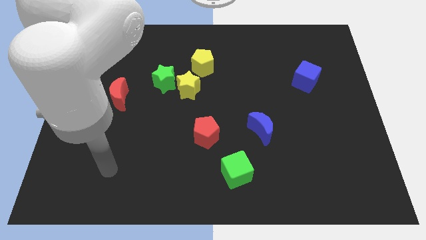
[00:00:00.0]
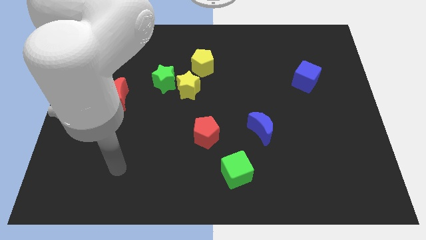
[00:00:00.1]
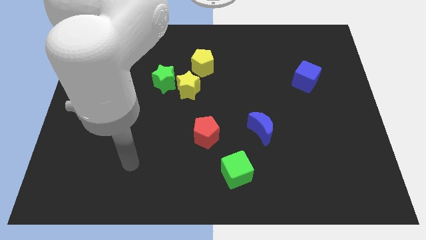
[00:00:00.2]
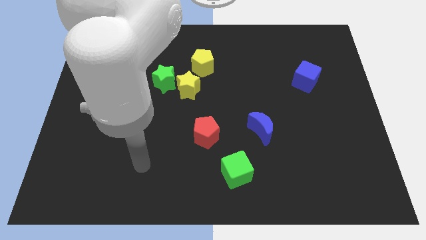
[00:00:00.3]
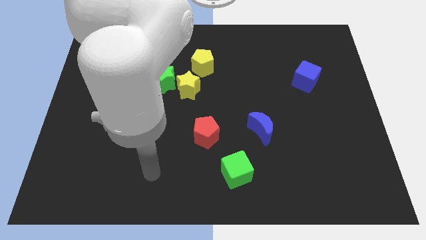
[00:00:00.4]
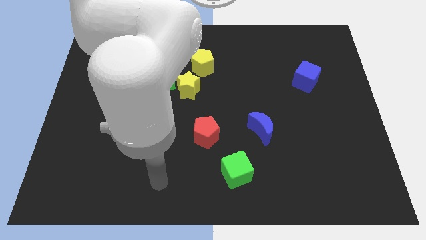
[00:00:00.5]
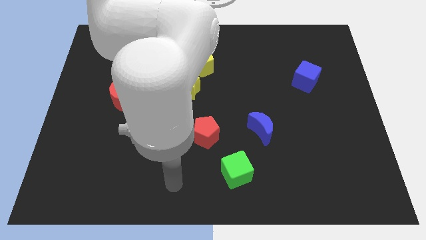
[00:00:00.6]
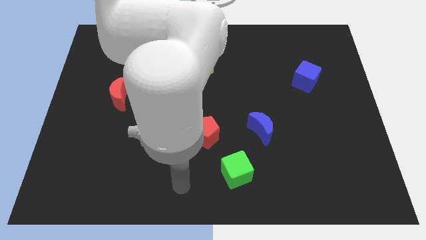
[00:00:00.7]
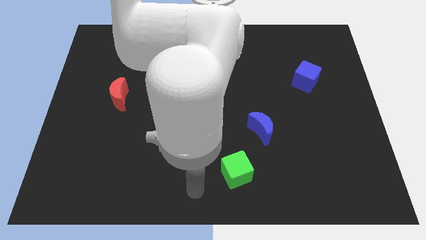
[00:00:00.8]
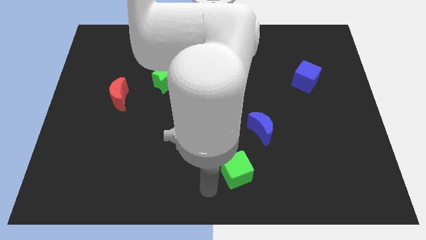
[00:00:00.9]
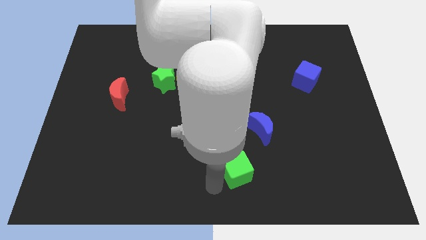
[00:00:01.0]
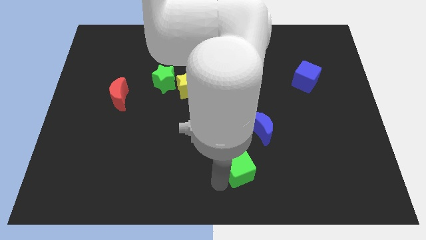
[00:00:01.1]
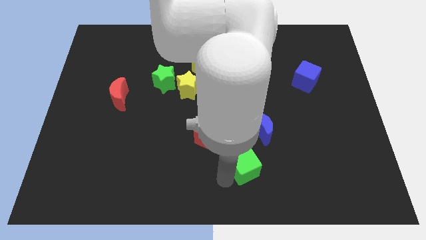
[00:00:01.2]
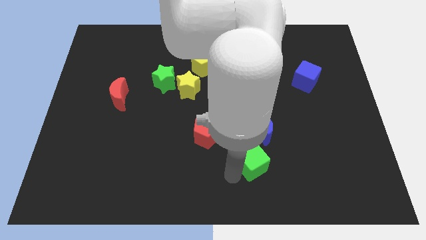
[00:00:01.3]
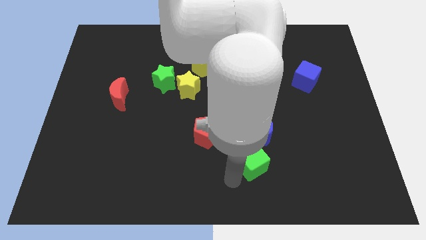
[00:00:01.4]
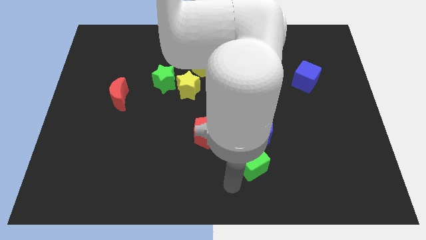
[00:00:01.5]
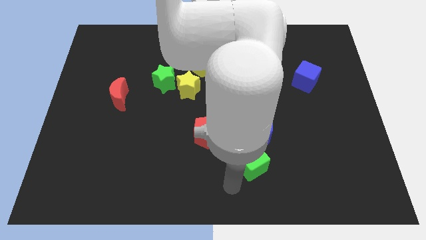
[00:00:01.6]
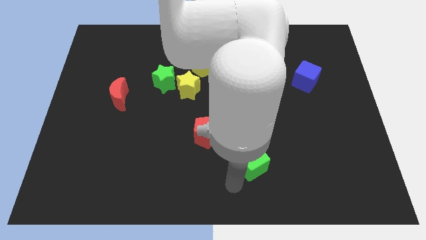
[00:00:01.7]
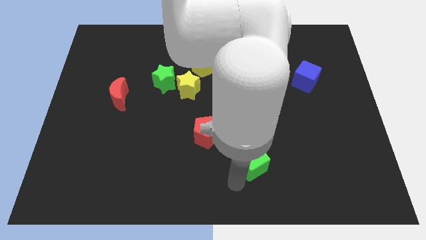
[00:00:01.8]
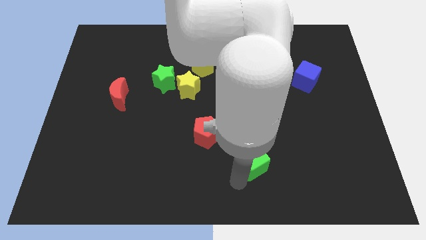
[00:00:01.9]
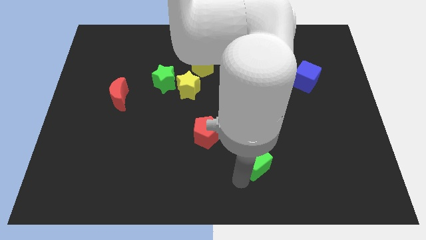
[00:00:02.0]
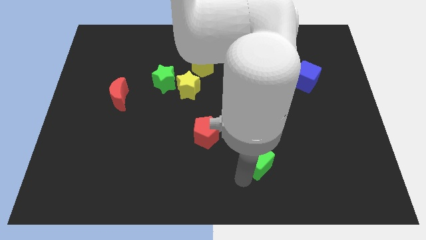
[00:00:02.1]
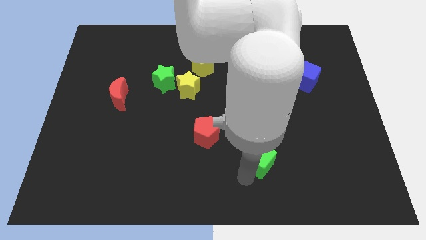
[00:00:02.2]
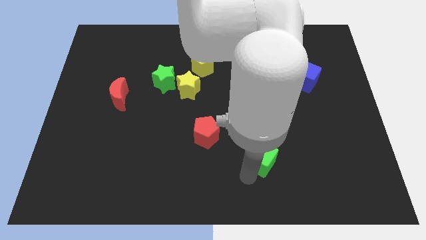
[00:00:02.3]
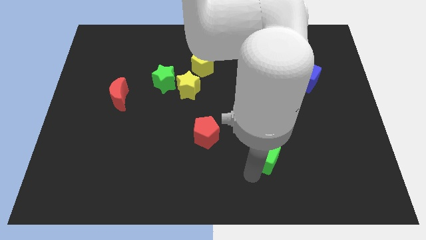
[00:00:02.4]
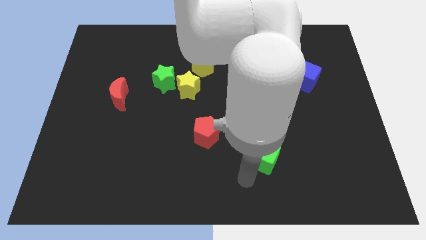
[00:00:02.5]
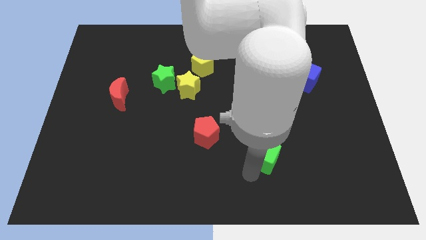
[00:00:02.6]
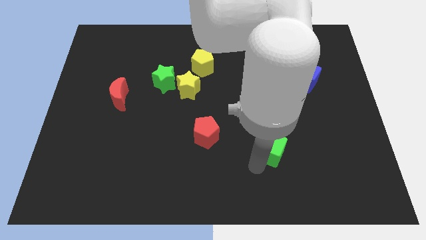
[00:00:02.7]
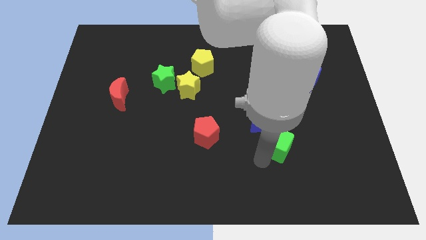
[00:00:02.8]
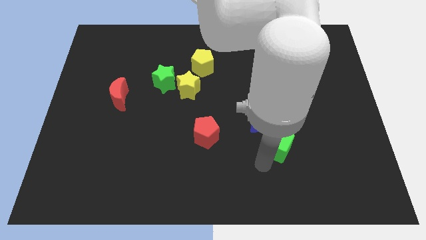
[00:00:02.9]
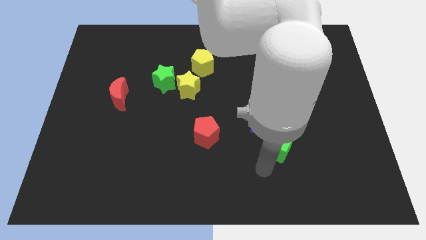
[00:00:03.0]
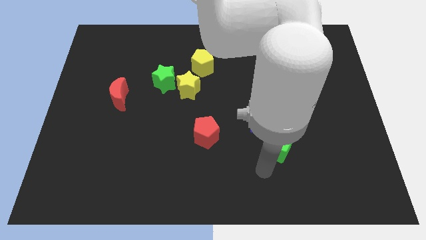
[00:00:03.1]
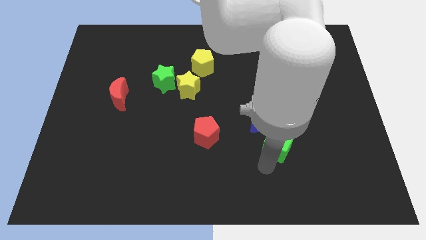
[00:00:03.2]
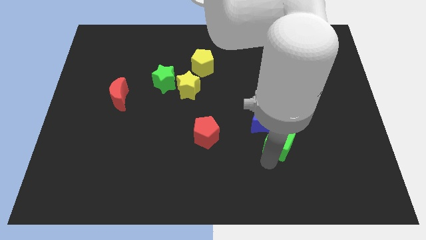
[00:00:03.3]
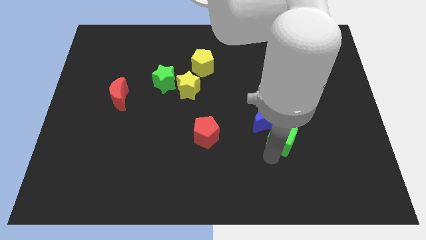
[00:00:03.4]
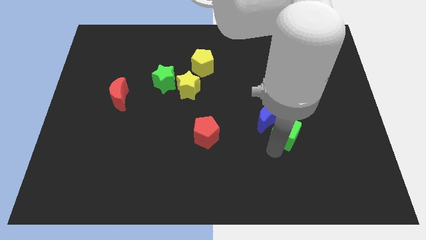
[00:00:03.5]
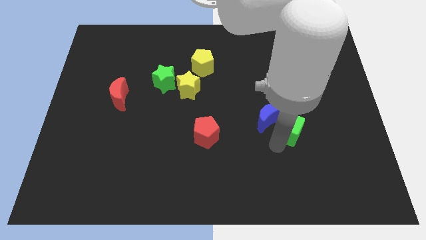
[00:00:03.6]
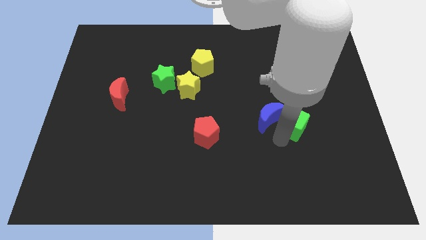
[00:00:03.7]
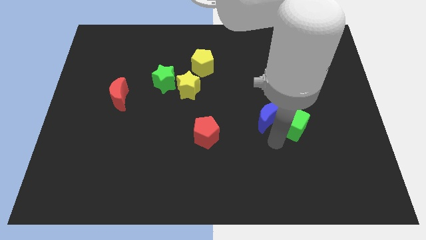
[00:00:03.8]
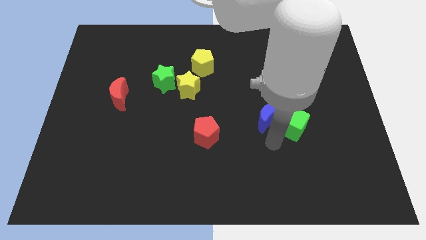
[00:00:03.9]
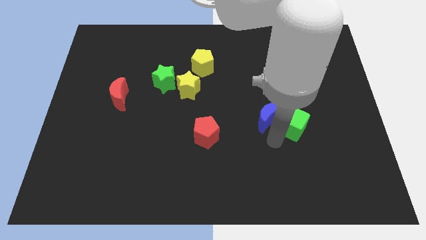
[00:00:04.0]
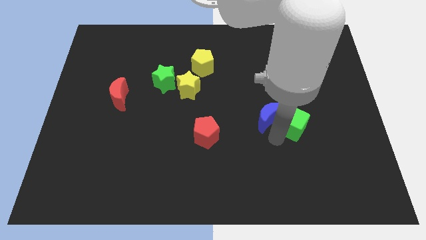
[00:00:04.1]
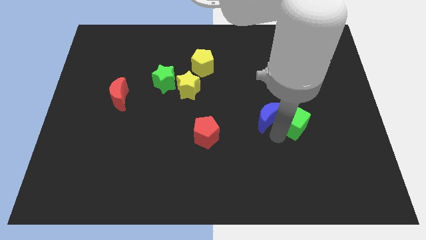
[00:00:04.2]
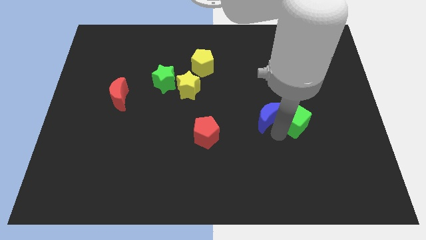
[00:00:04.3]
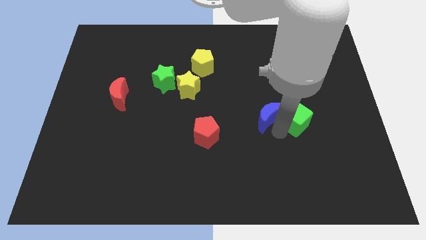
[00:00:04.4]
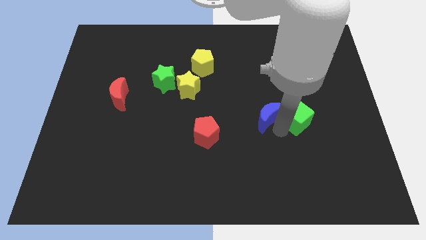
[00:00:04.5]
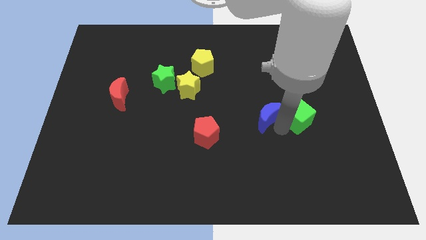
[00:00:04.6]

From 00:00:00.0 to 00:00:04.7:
slide the green cube diagonally upwards and to the right

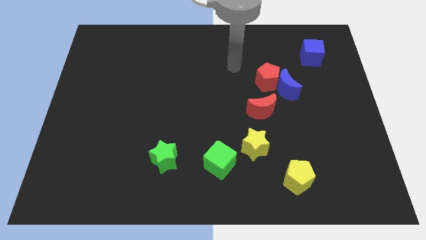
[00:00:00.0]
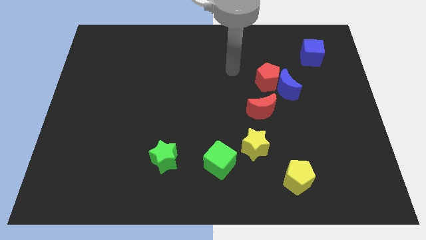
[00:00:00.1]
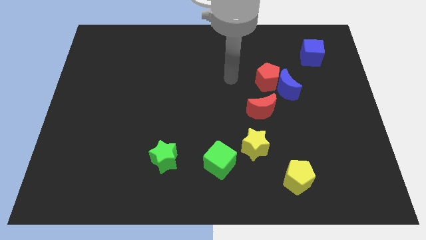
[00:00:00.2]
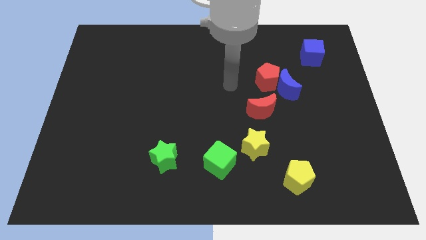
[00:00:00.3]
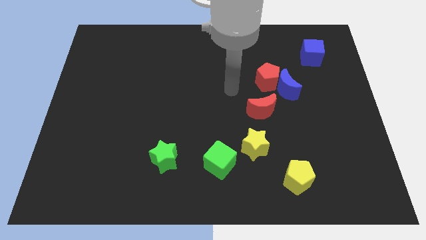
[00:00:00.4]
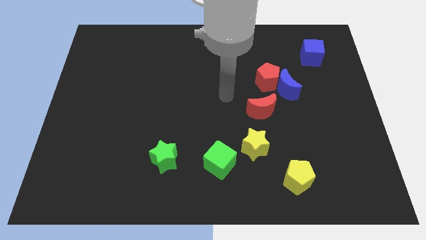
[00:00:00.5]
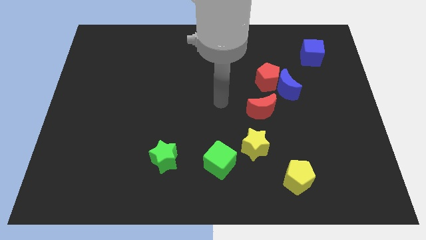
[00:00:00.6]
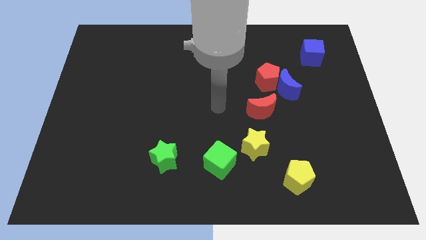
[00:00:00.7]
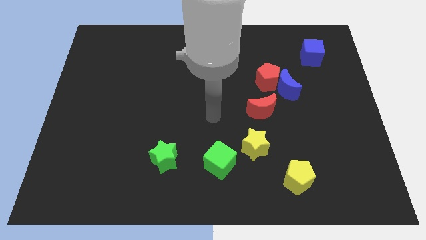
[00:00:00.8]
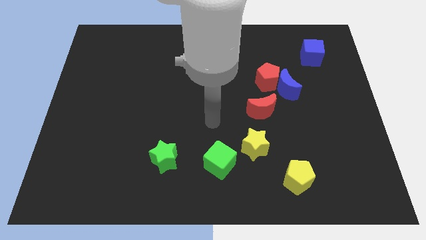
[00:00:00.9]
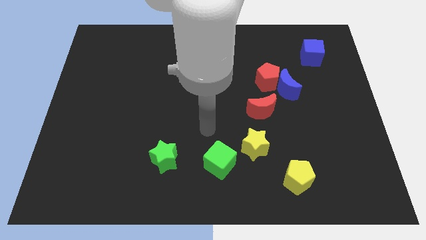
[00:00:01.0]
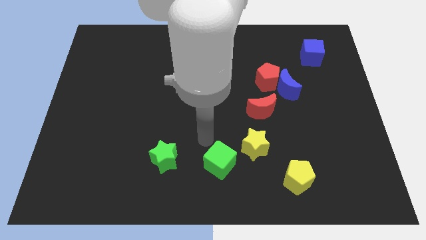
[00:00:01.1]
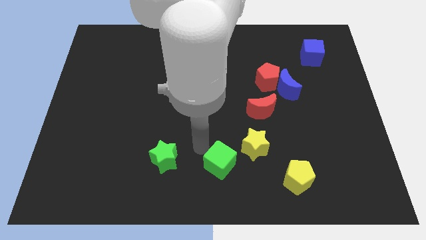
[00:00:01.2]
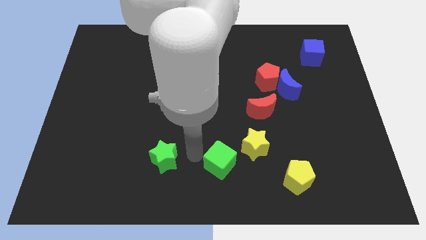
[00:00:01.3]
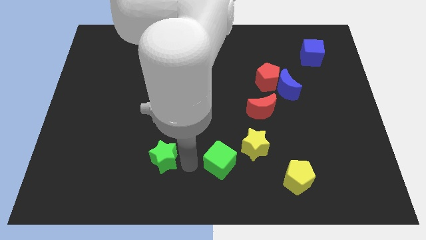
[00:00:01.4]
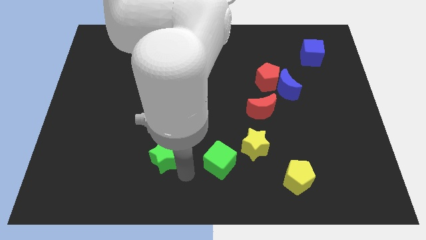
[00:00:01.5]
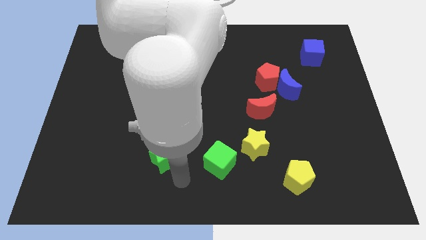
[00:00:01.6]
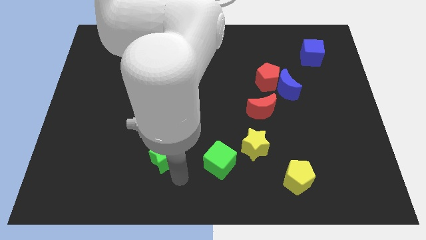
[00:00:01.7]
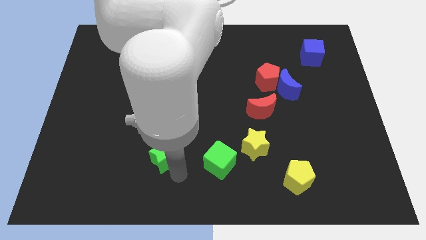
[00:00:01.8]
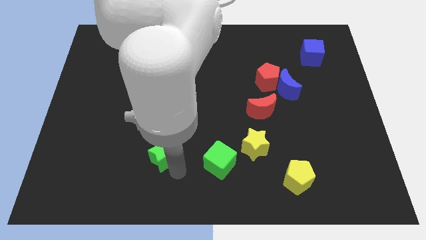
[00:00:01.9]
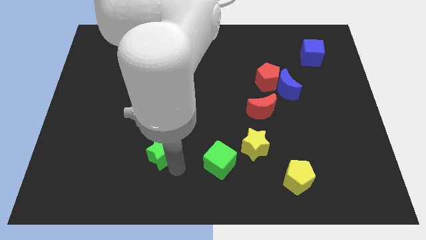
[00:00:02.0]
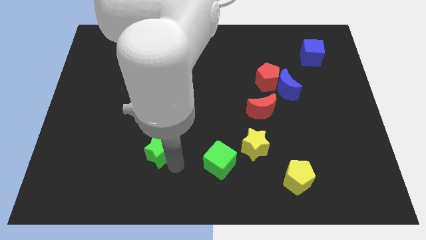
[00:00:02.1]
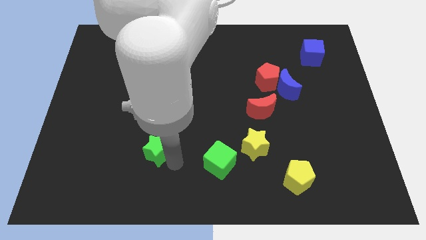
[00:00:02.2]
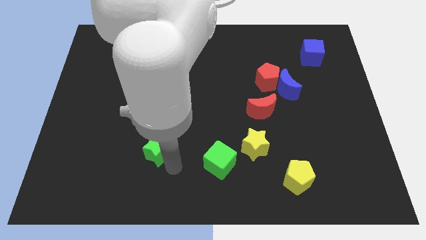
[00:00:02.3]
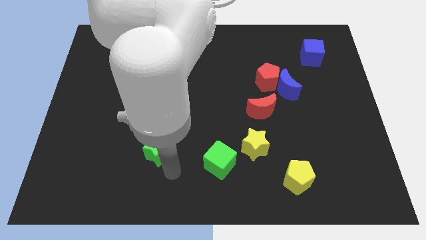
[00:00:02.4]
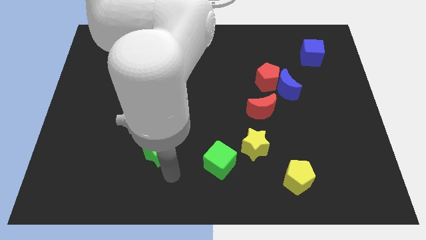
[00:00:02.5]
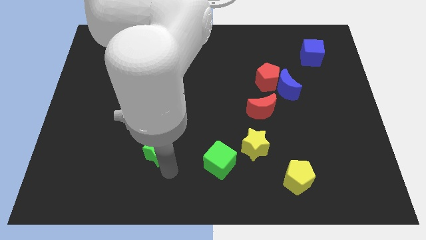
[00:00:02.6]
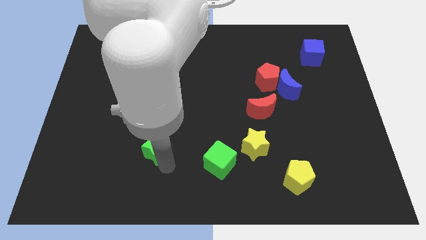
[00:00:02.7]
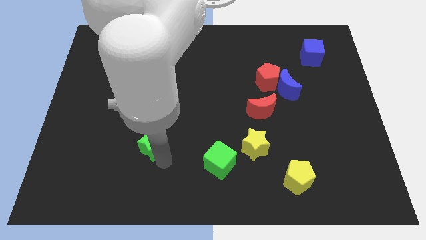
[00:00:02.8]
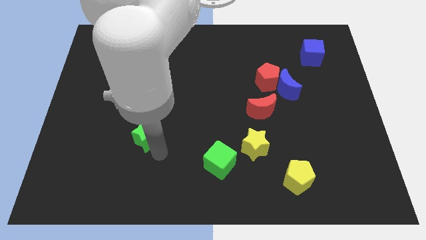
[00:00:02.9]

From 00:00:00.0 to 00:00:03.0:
push the green star somewhat upwards and then to the left
